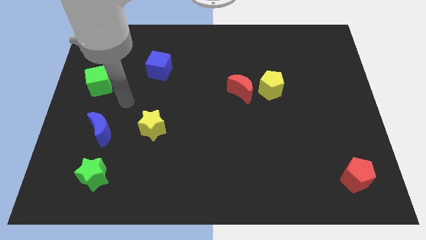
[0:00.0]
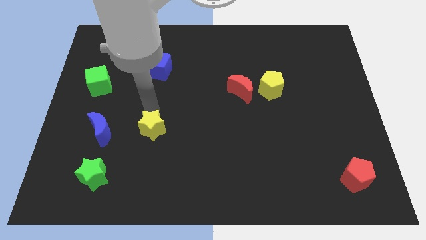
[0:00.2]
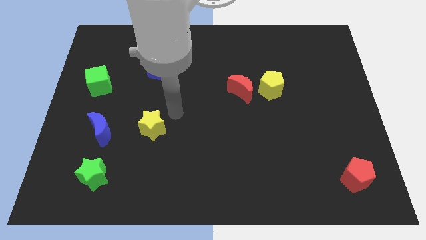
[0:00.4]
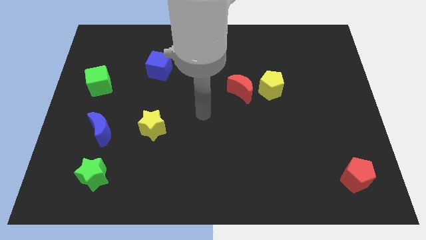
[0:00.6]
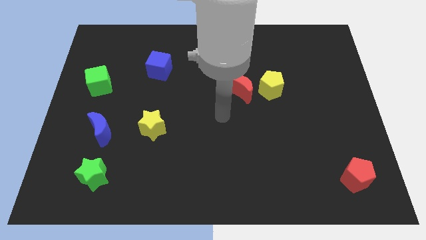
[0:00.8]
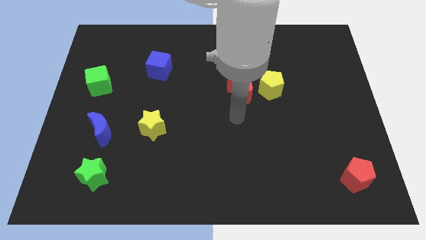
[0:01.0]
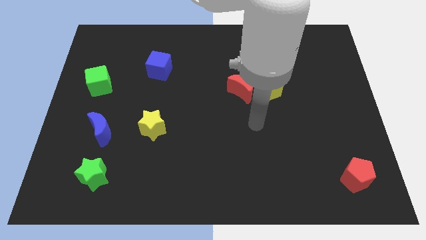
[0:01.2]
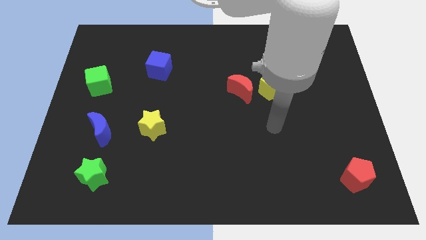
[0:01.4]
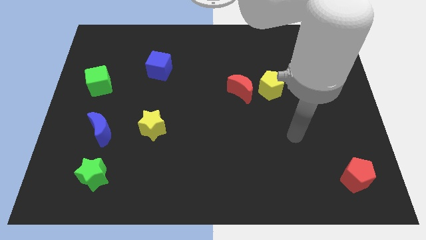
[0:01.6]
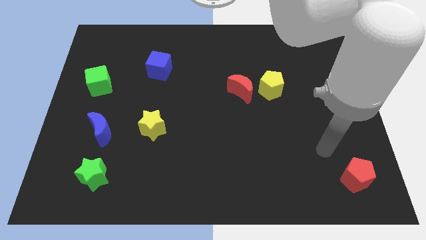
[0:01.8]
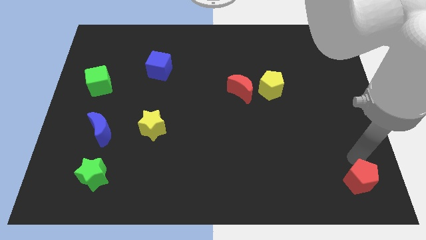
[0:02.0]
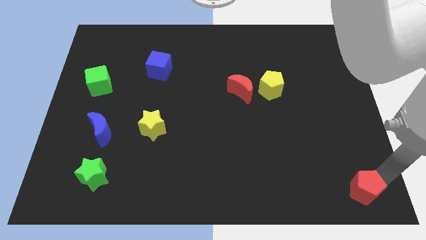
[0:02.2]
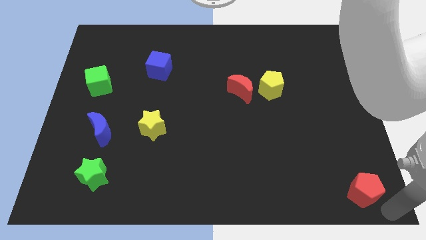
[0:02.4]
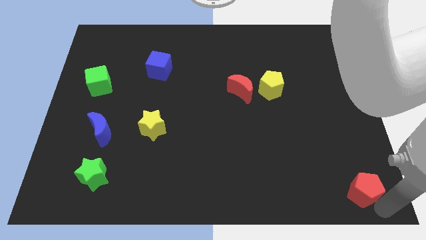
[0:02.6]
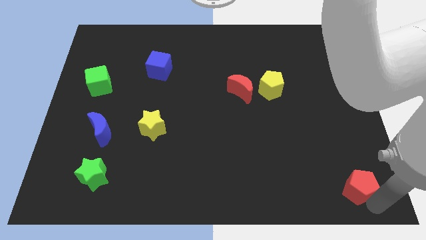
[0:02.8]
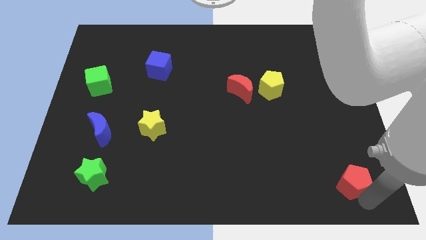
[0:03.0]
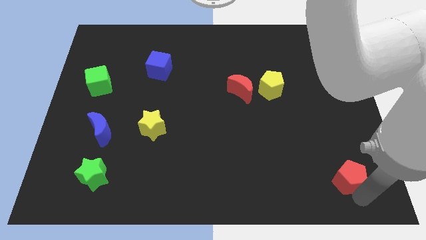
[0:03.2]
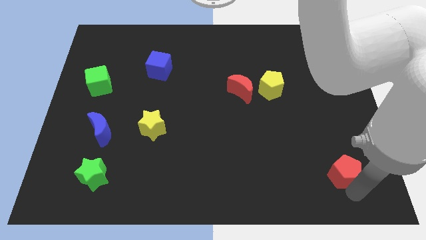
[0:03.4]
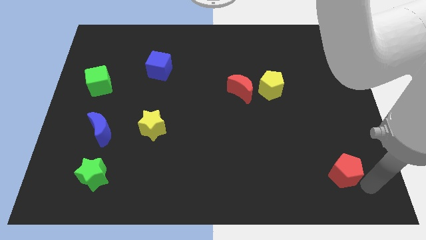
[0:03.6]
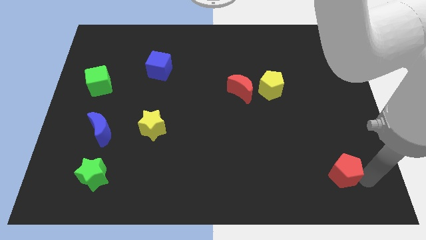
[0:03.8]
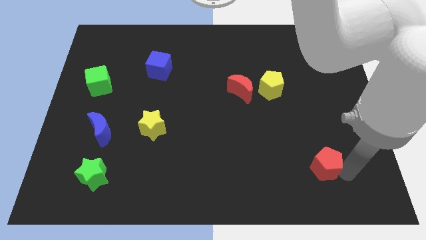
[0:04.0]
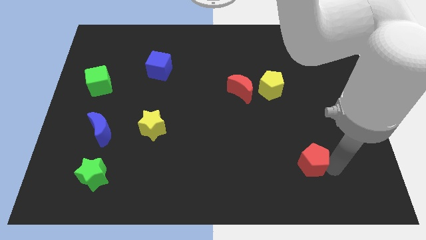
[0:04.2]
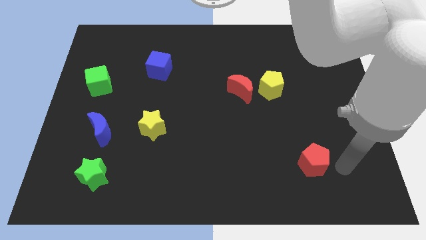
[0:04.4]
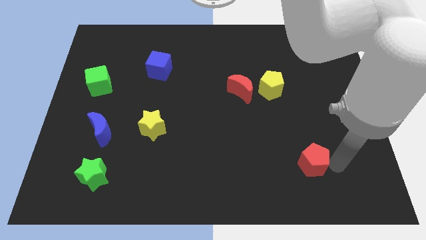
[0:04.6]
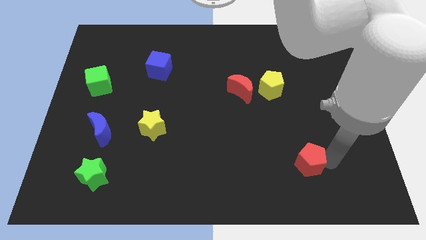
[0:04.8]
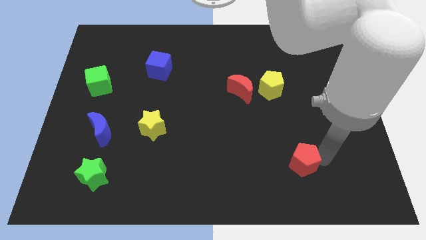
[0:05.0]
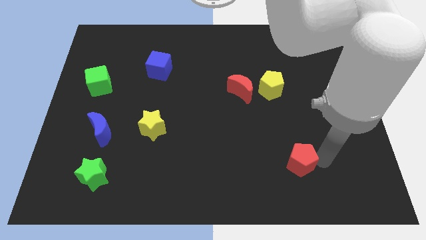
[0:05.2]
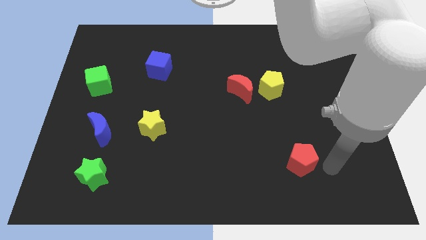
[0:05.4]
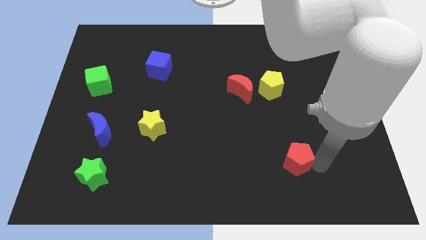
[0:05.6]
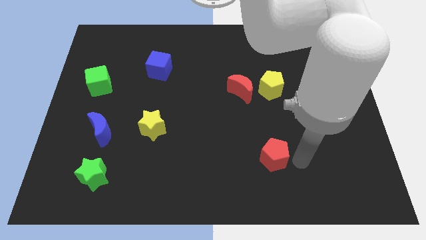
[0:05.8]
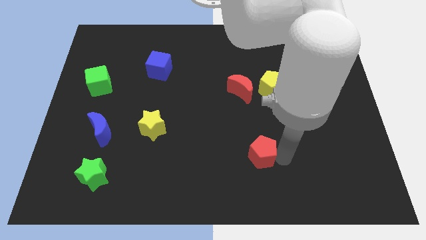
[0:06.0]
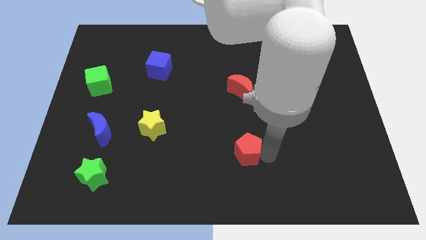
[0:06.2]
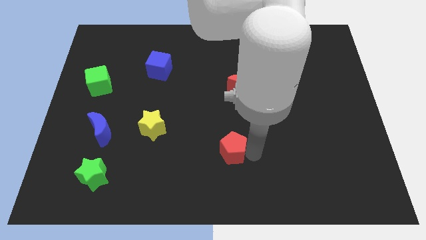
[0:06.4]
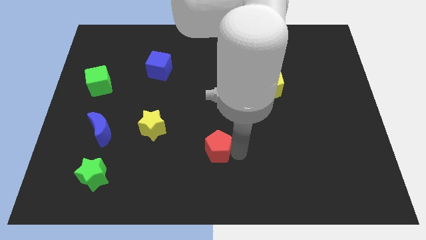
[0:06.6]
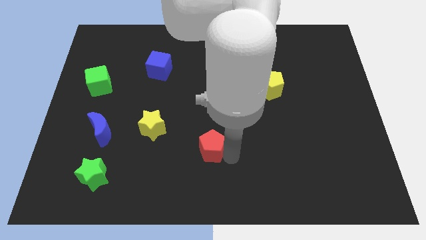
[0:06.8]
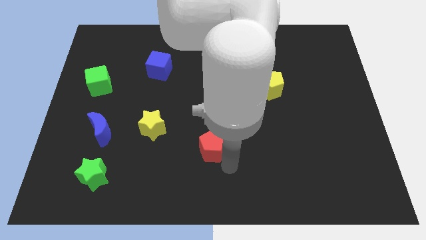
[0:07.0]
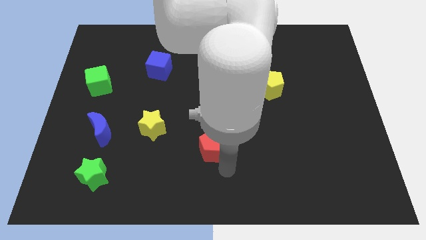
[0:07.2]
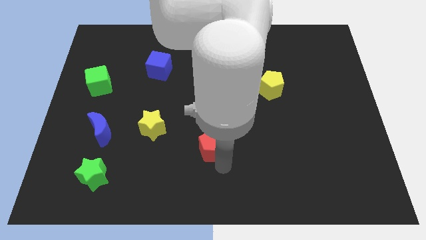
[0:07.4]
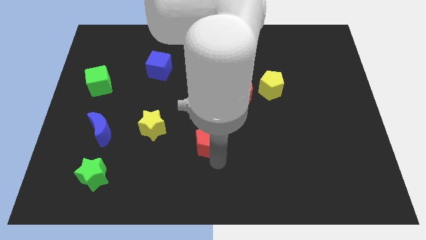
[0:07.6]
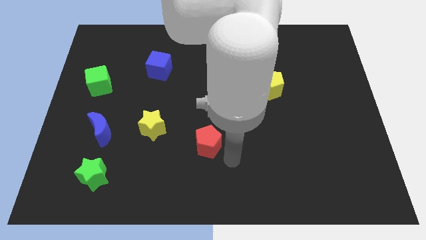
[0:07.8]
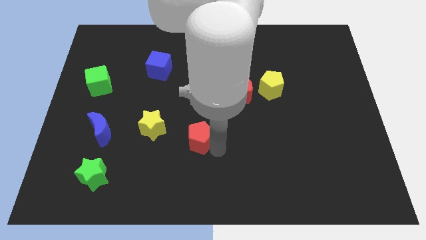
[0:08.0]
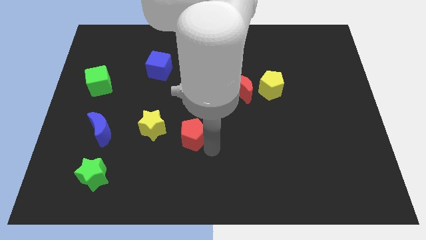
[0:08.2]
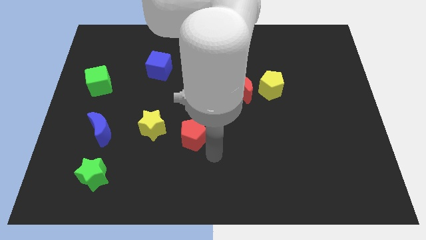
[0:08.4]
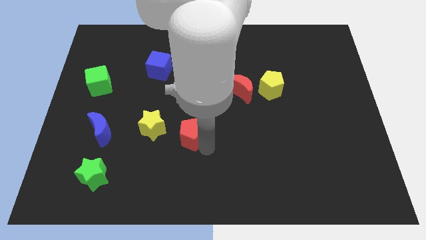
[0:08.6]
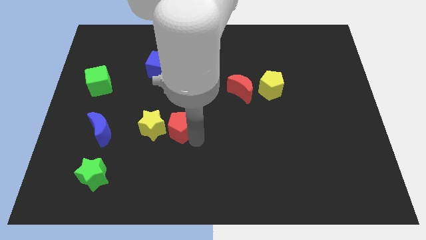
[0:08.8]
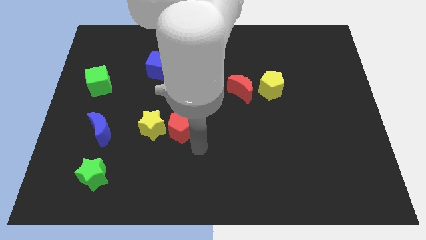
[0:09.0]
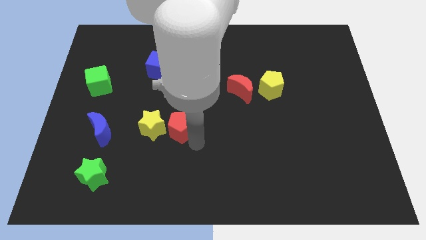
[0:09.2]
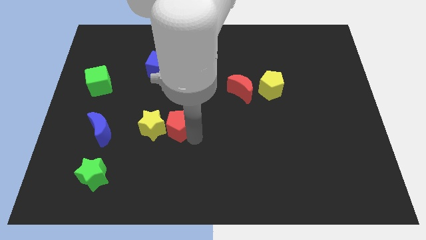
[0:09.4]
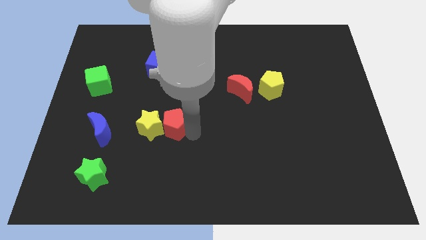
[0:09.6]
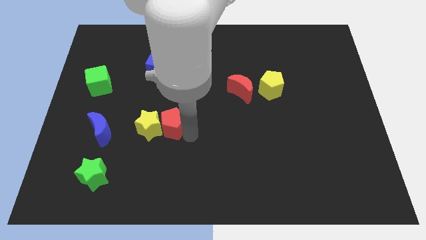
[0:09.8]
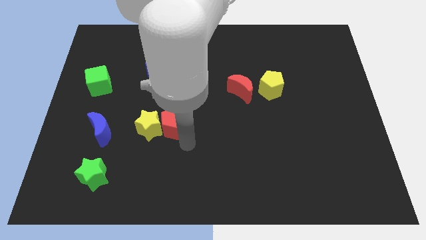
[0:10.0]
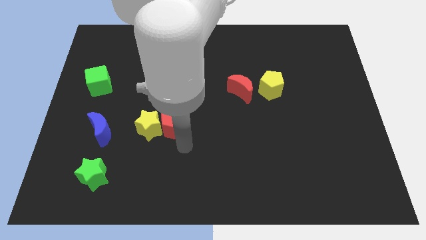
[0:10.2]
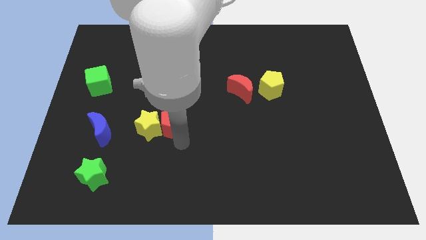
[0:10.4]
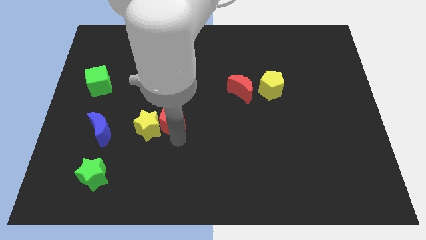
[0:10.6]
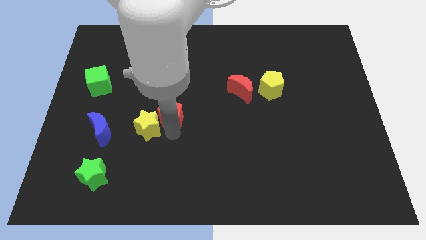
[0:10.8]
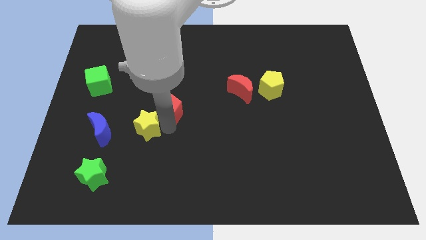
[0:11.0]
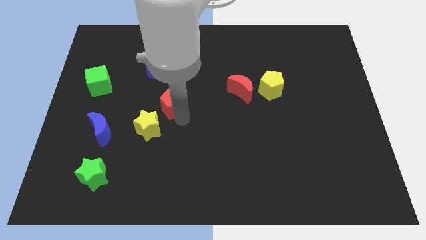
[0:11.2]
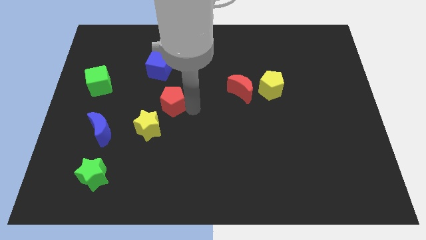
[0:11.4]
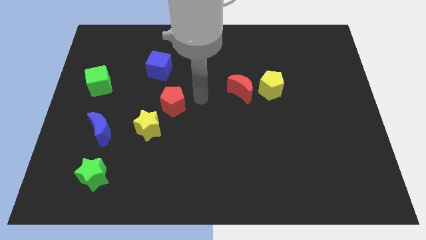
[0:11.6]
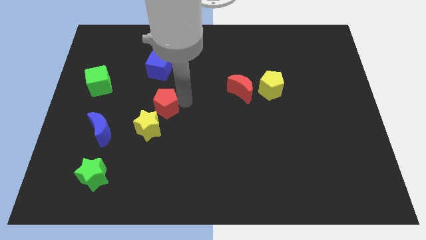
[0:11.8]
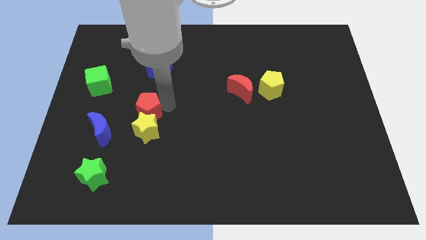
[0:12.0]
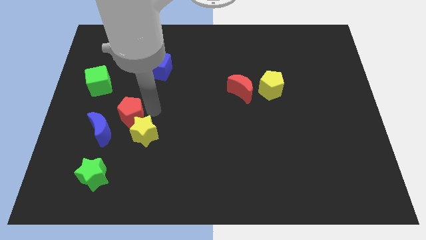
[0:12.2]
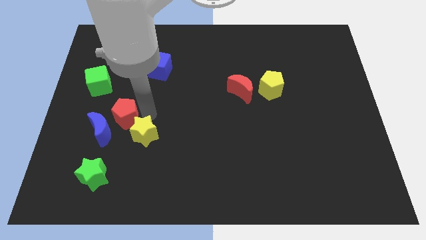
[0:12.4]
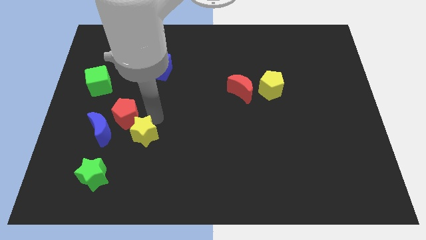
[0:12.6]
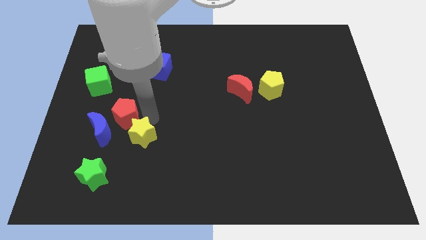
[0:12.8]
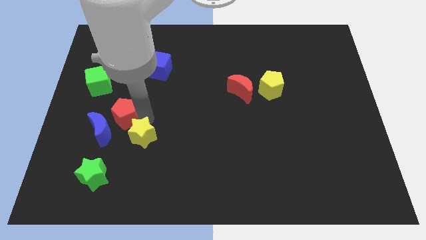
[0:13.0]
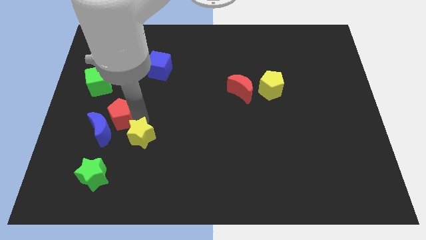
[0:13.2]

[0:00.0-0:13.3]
put the red pentagon to the top side of the green star
